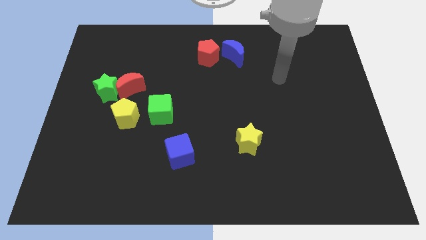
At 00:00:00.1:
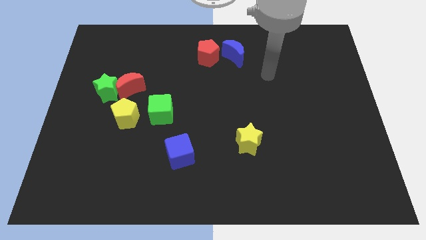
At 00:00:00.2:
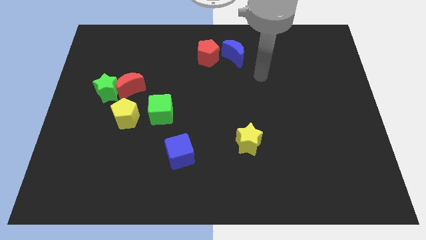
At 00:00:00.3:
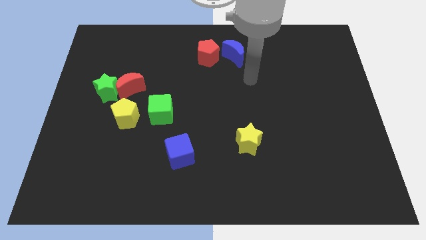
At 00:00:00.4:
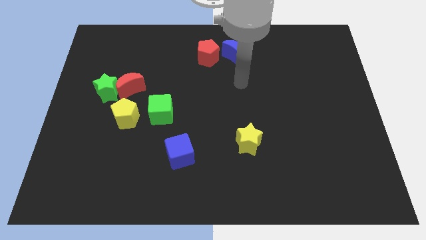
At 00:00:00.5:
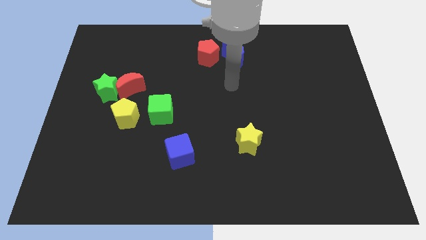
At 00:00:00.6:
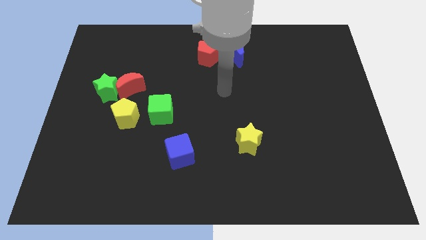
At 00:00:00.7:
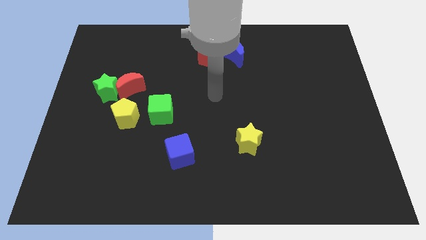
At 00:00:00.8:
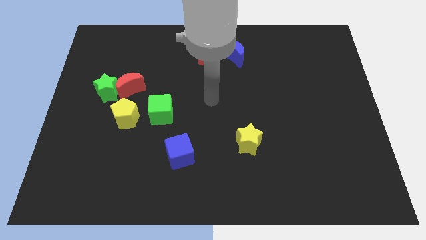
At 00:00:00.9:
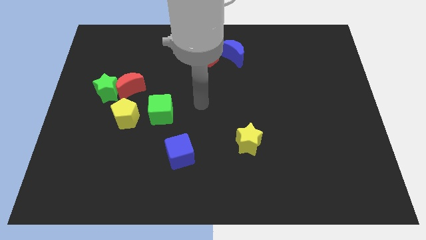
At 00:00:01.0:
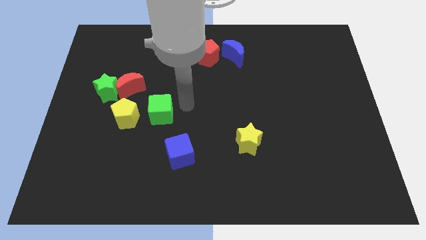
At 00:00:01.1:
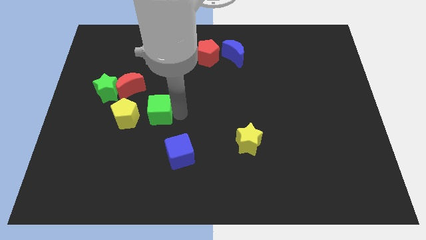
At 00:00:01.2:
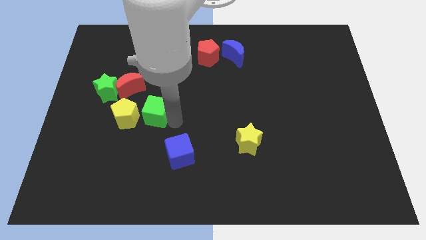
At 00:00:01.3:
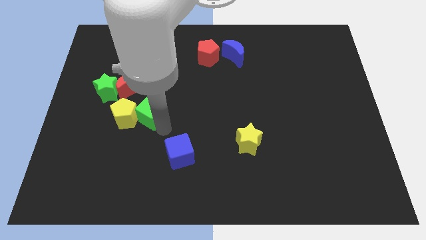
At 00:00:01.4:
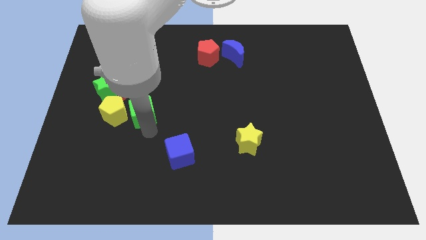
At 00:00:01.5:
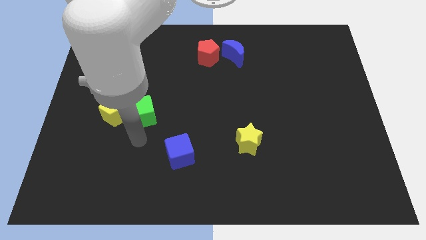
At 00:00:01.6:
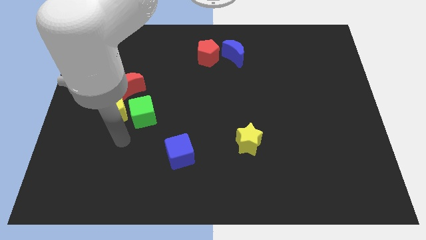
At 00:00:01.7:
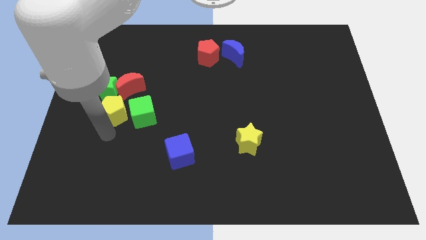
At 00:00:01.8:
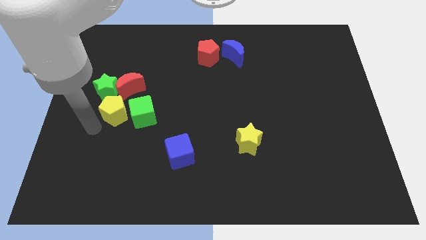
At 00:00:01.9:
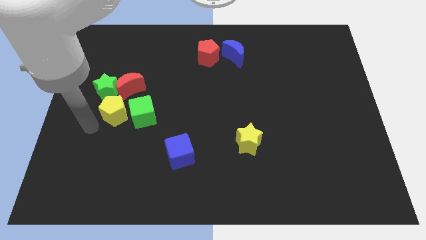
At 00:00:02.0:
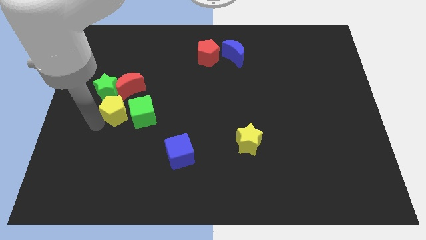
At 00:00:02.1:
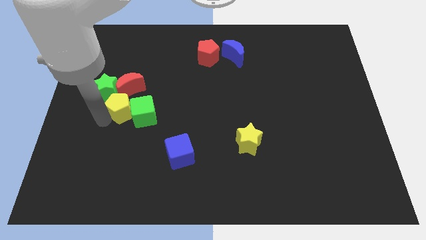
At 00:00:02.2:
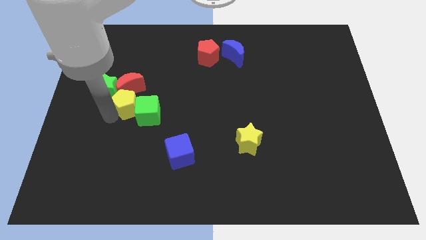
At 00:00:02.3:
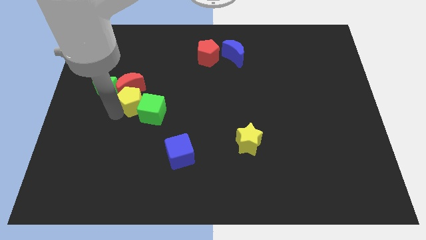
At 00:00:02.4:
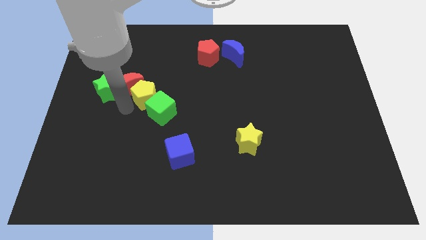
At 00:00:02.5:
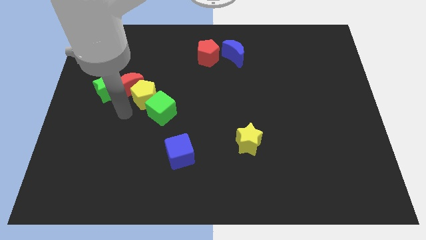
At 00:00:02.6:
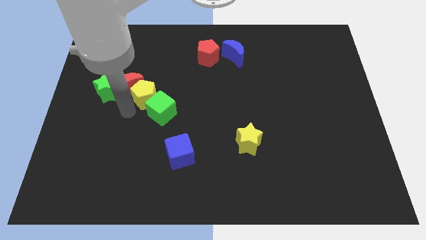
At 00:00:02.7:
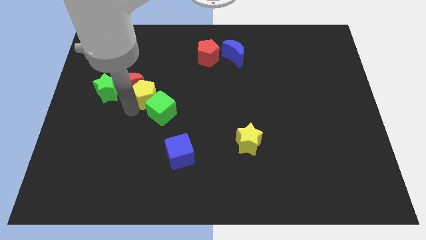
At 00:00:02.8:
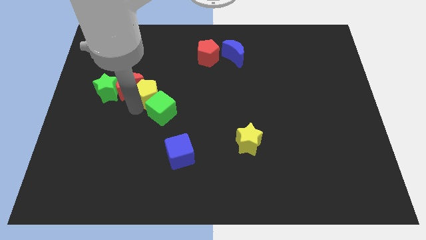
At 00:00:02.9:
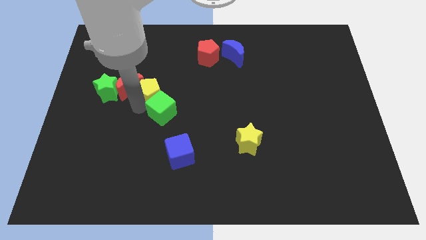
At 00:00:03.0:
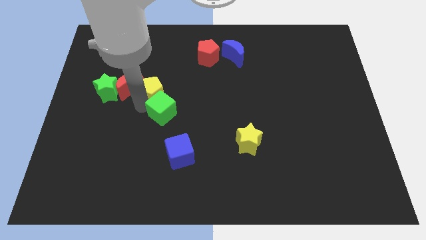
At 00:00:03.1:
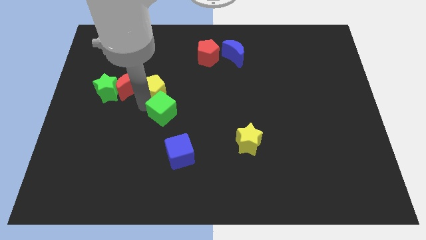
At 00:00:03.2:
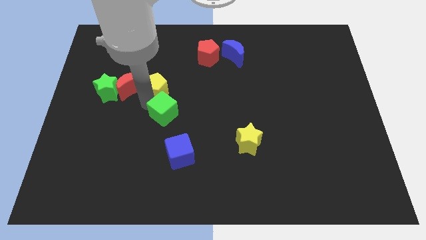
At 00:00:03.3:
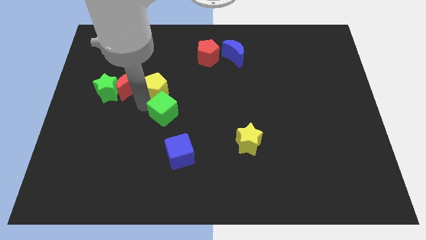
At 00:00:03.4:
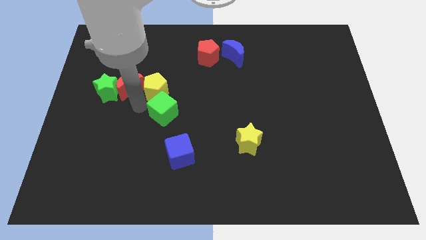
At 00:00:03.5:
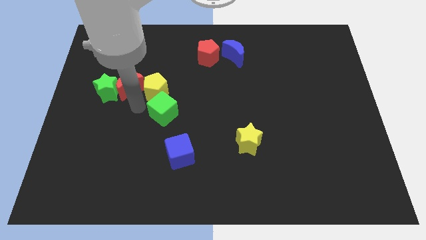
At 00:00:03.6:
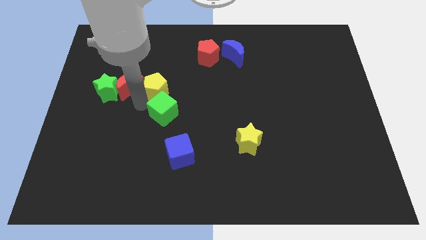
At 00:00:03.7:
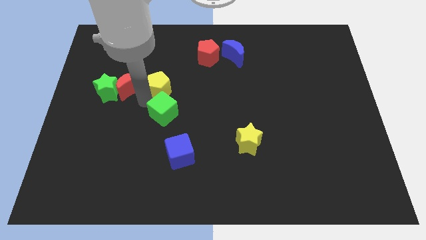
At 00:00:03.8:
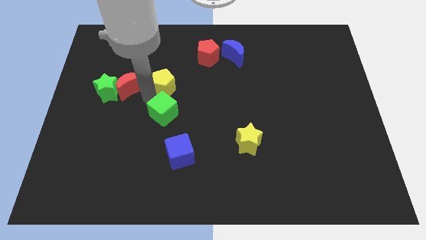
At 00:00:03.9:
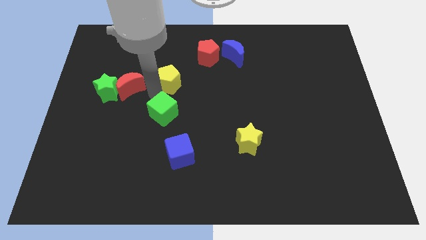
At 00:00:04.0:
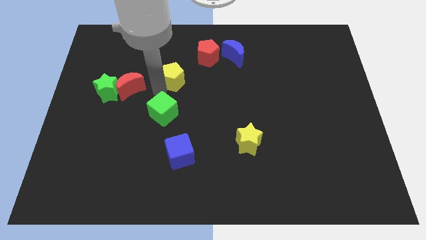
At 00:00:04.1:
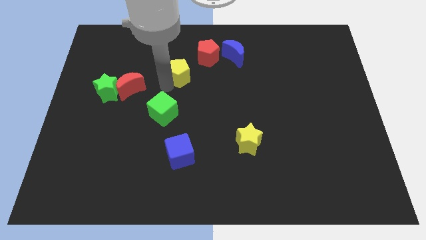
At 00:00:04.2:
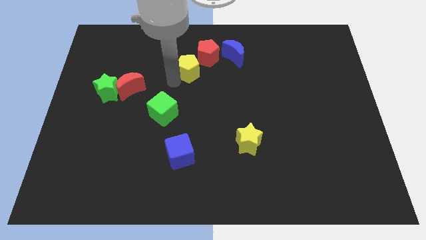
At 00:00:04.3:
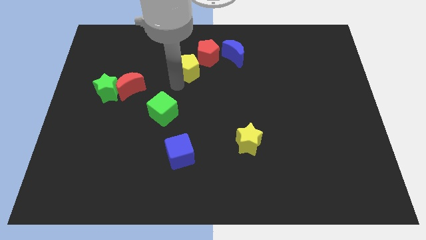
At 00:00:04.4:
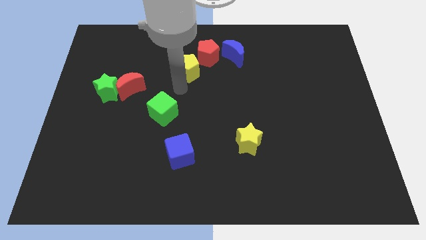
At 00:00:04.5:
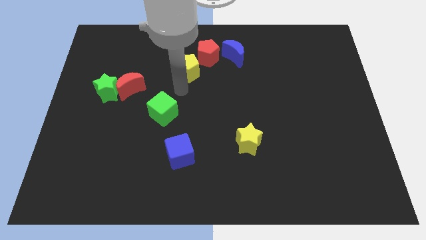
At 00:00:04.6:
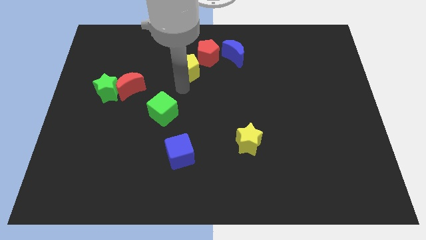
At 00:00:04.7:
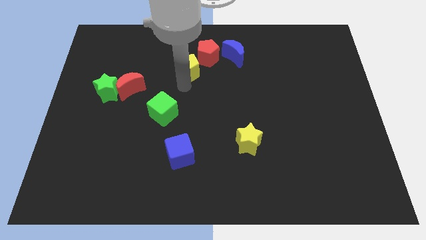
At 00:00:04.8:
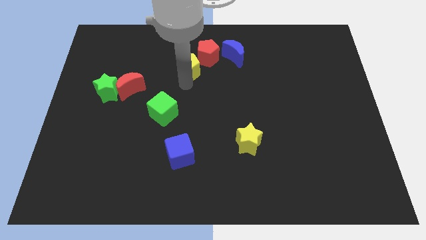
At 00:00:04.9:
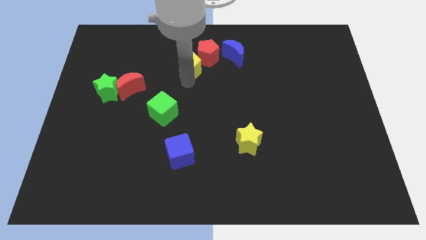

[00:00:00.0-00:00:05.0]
move the yellow pentagon left of the blue moon

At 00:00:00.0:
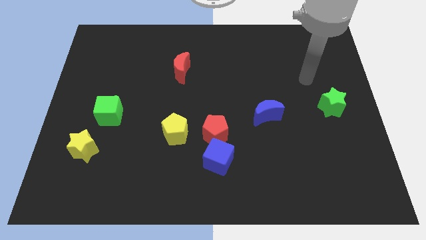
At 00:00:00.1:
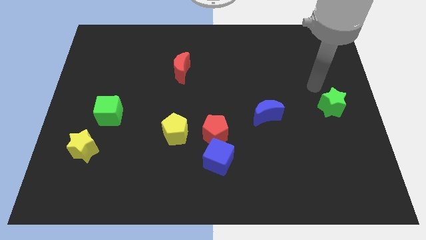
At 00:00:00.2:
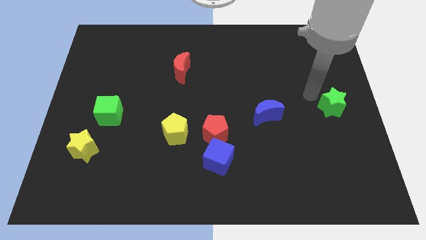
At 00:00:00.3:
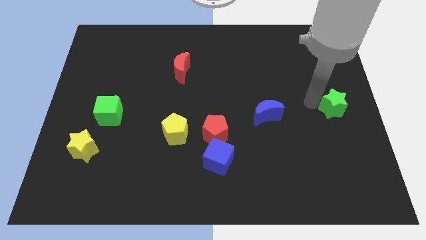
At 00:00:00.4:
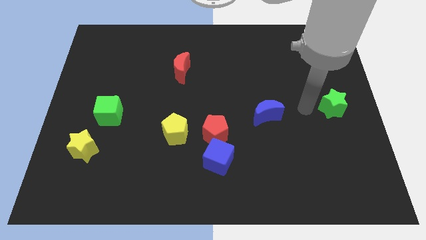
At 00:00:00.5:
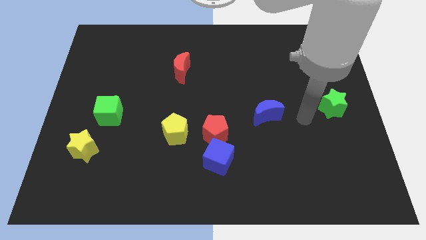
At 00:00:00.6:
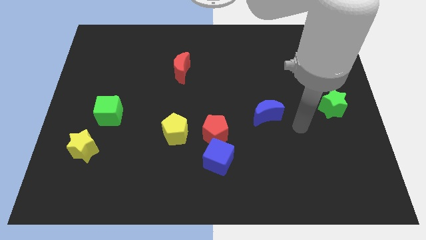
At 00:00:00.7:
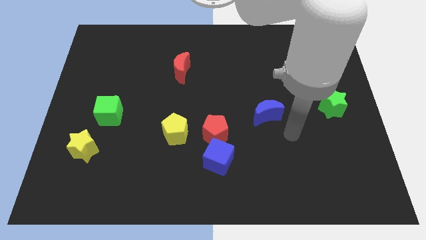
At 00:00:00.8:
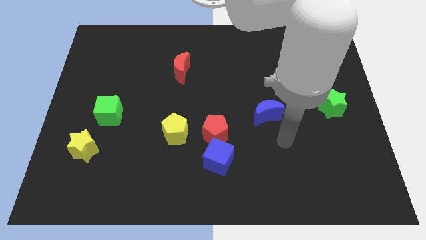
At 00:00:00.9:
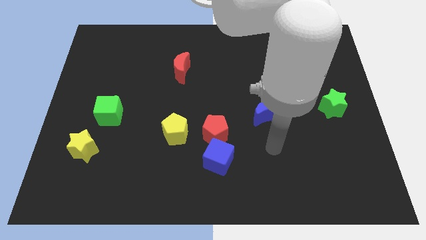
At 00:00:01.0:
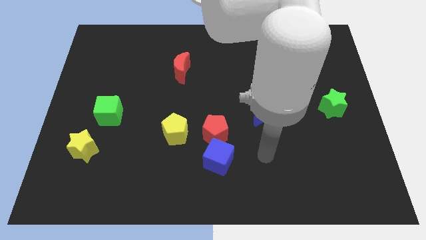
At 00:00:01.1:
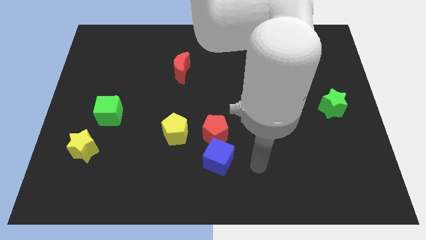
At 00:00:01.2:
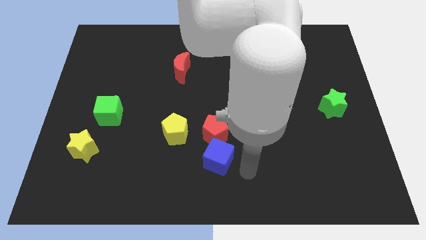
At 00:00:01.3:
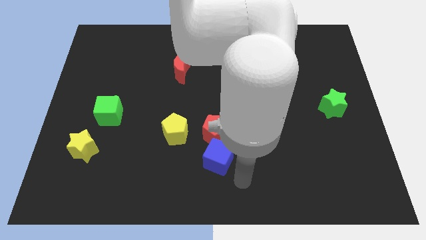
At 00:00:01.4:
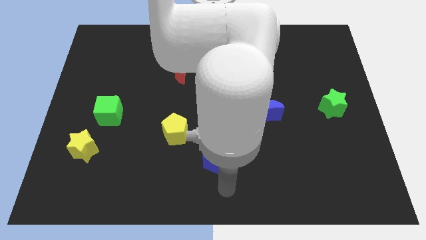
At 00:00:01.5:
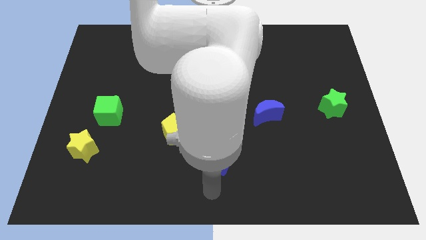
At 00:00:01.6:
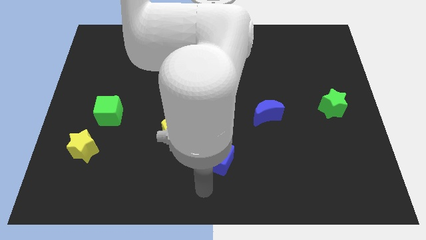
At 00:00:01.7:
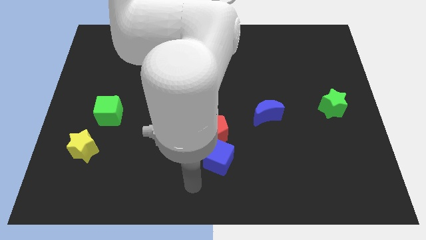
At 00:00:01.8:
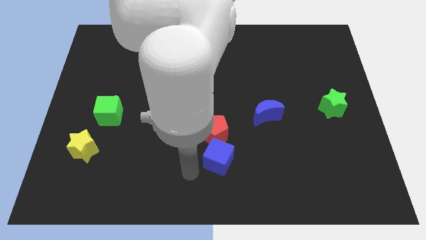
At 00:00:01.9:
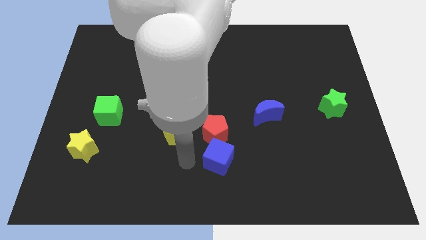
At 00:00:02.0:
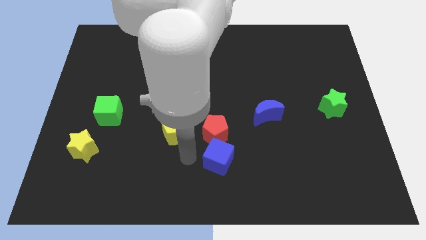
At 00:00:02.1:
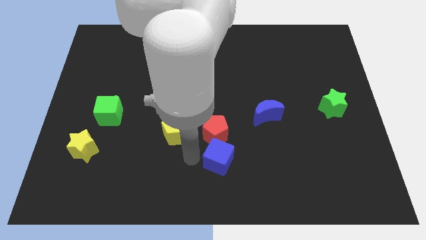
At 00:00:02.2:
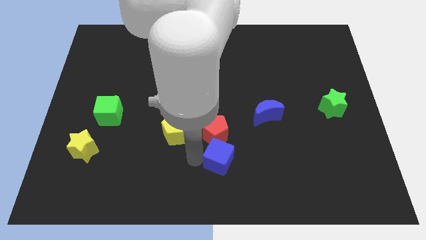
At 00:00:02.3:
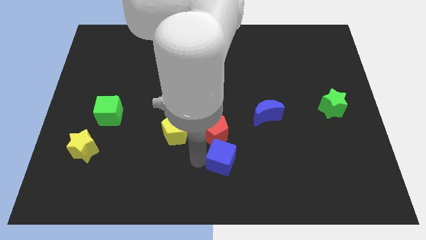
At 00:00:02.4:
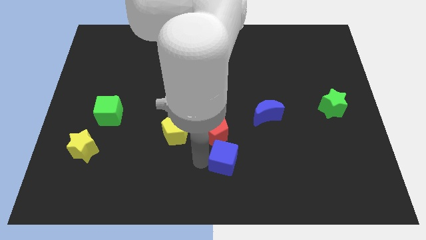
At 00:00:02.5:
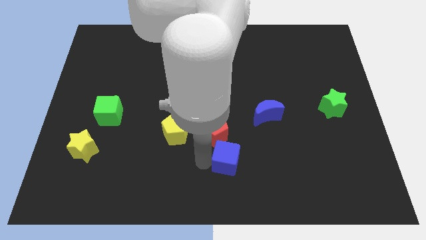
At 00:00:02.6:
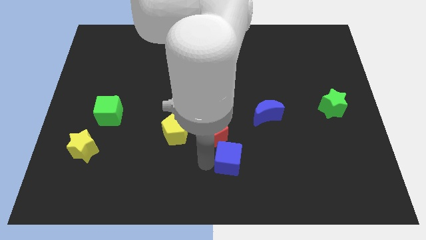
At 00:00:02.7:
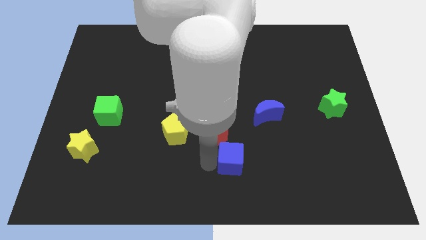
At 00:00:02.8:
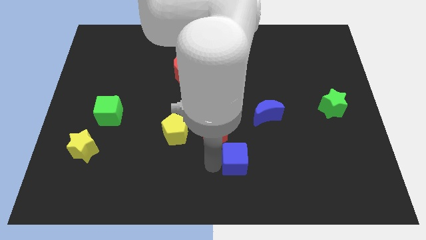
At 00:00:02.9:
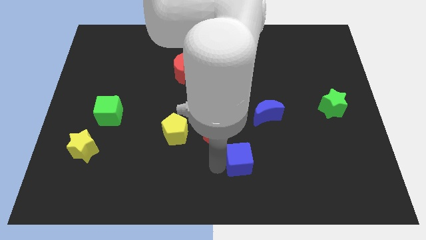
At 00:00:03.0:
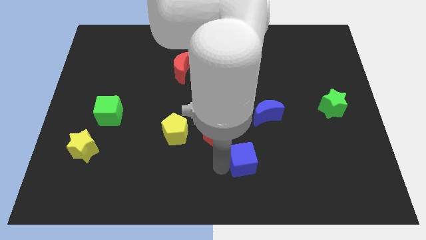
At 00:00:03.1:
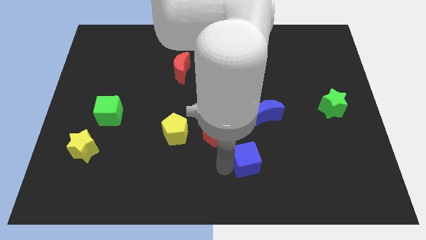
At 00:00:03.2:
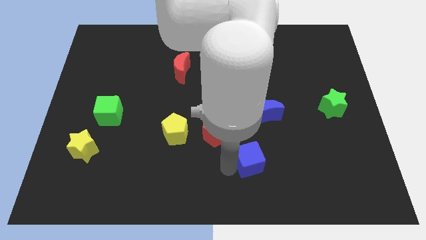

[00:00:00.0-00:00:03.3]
slide the blue cube to the bottom side of the blue moon
